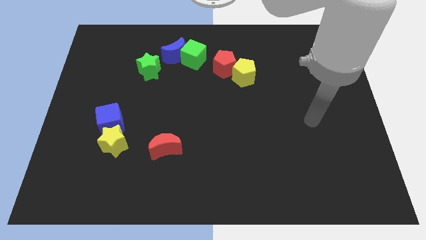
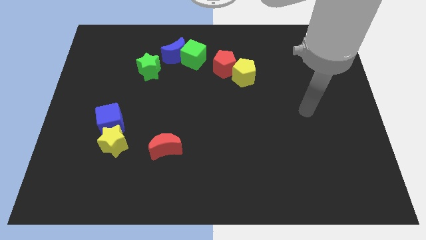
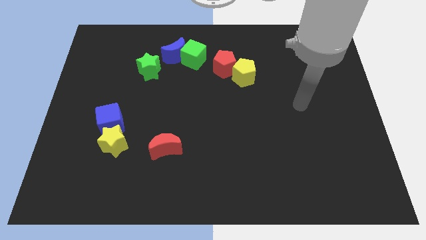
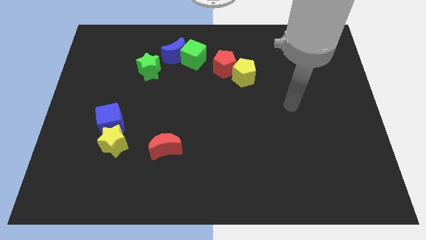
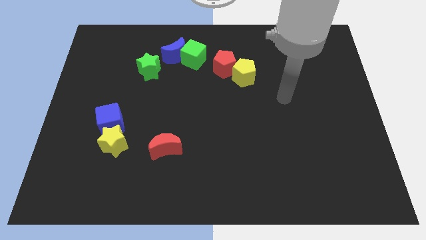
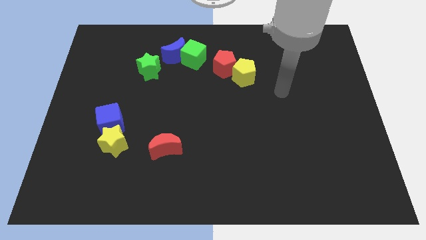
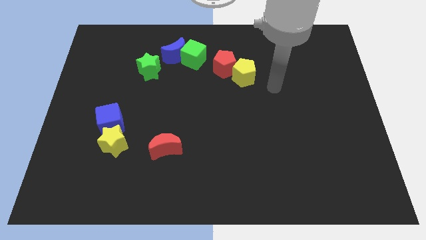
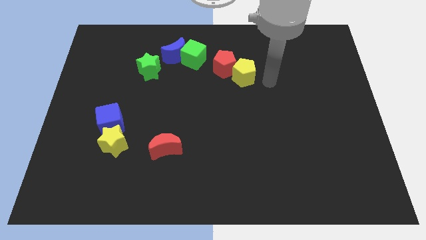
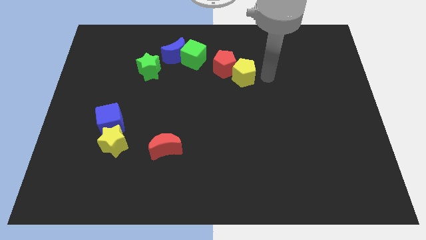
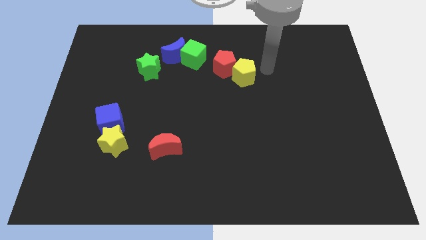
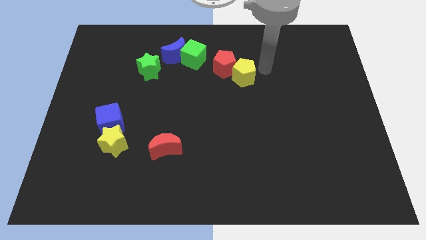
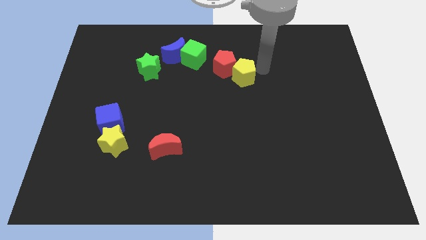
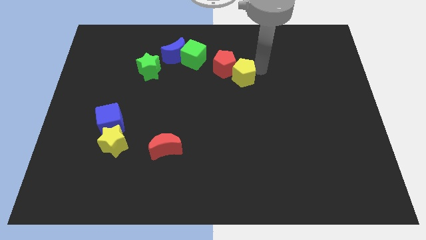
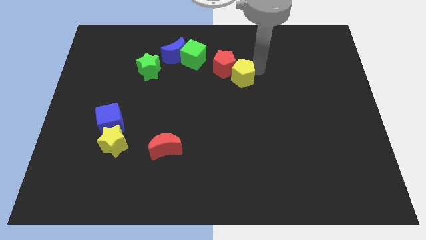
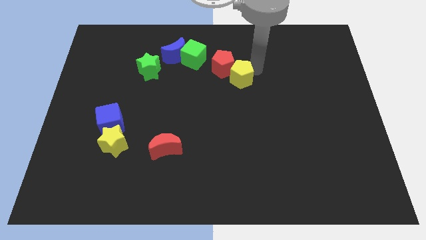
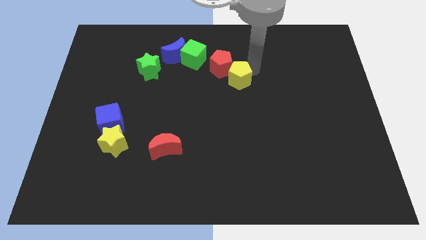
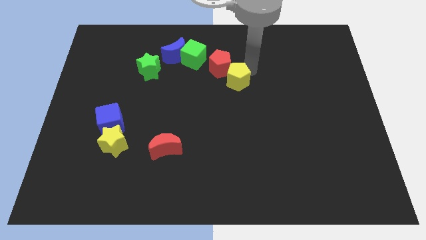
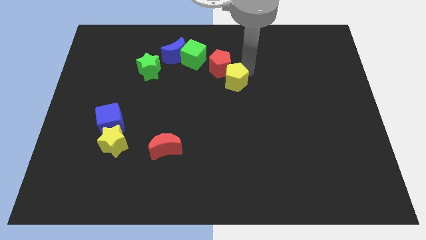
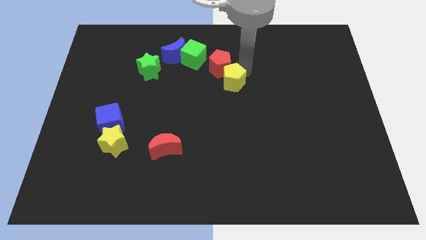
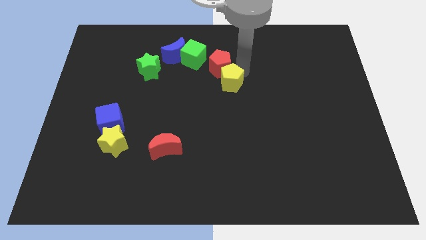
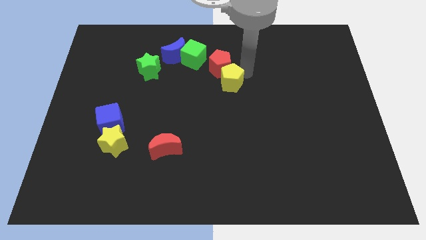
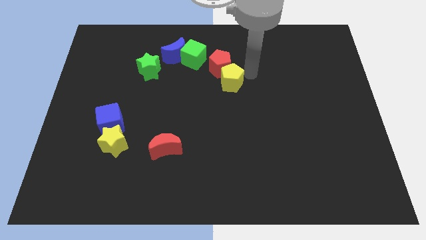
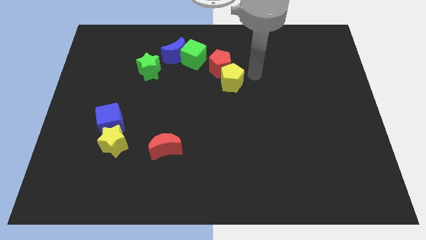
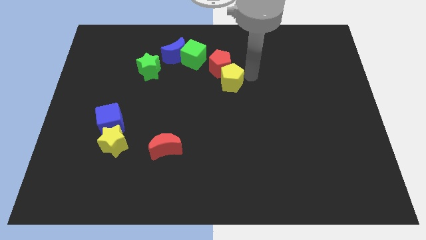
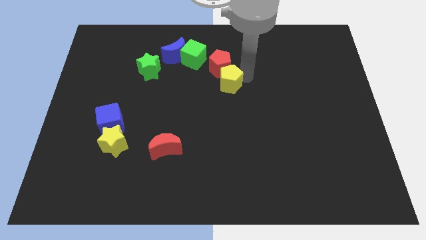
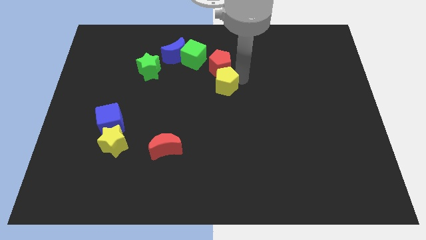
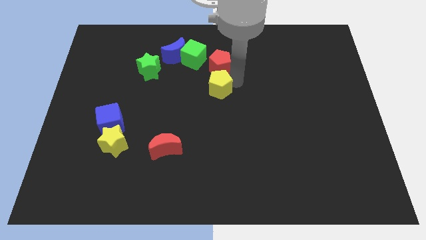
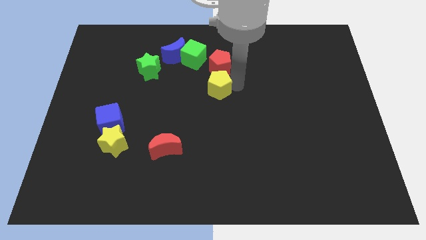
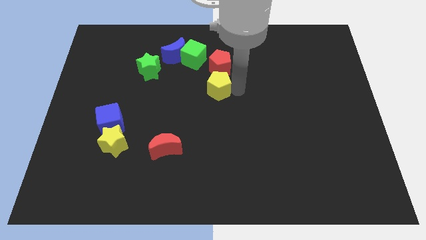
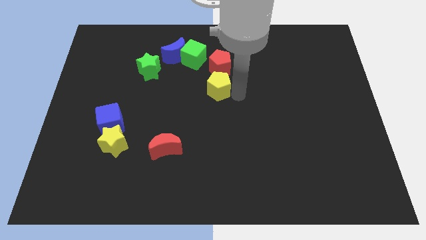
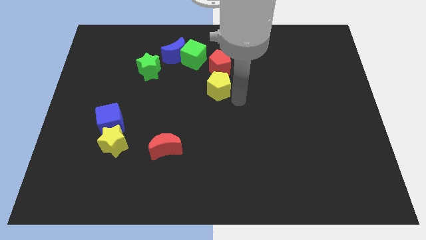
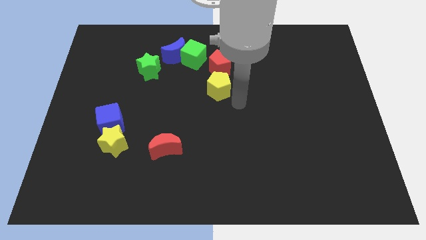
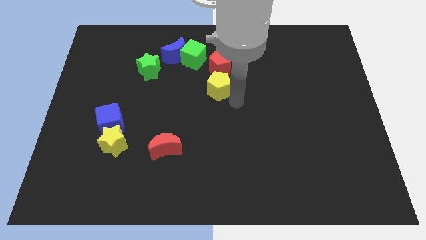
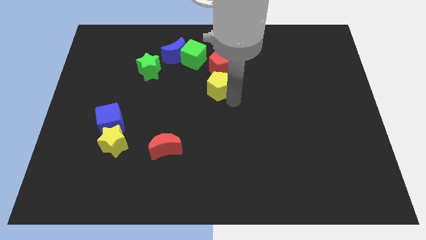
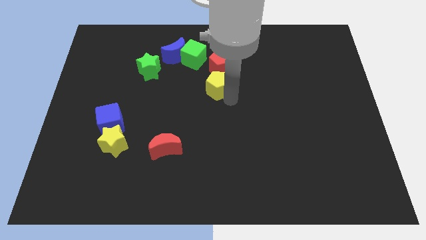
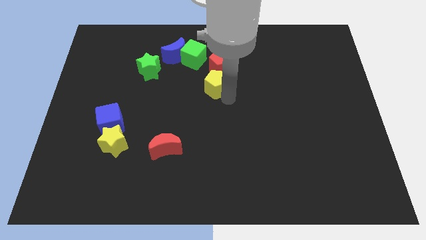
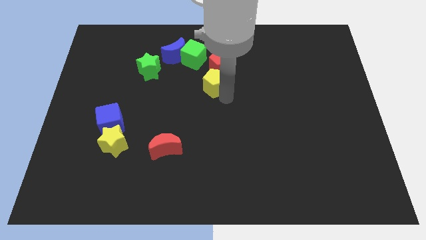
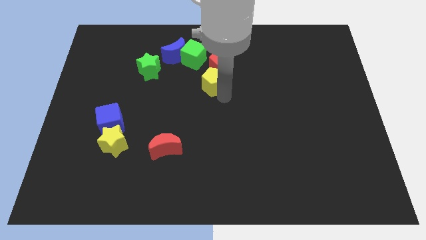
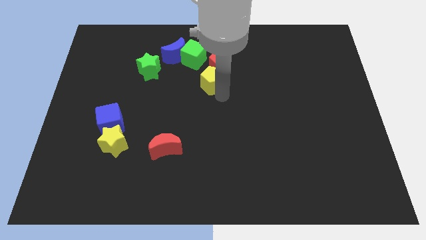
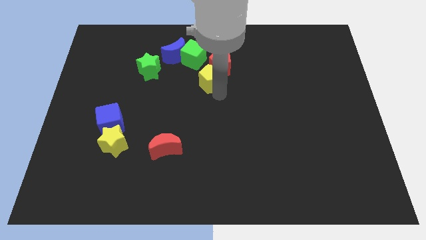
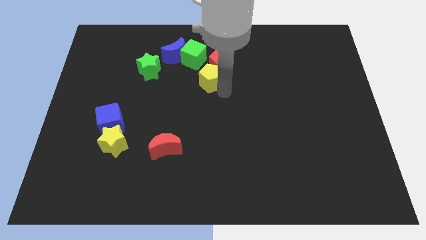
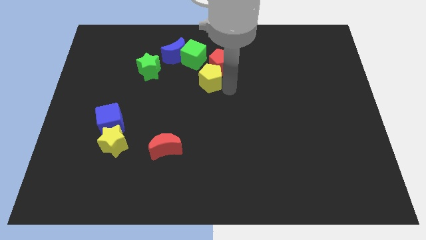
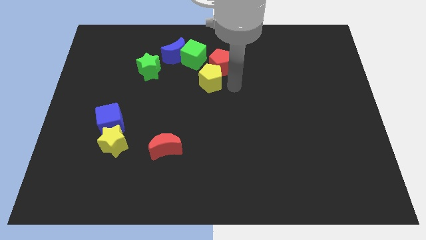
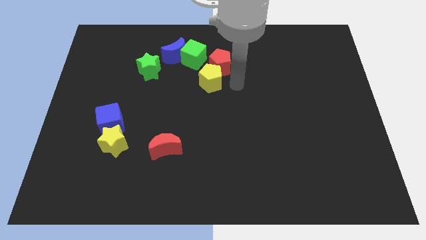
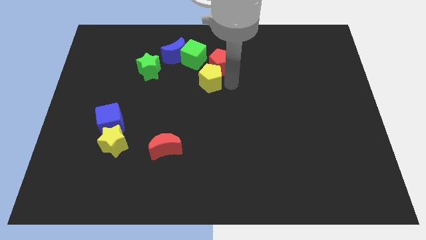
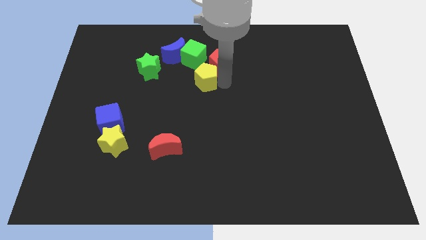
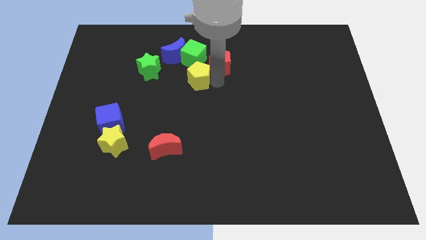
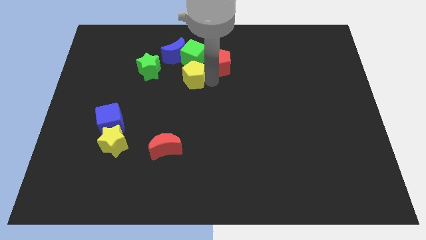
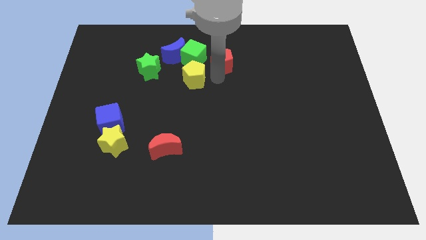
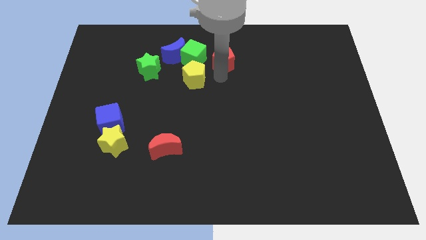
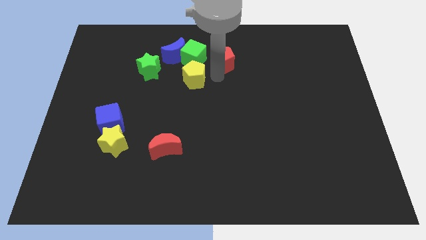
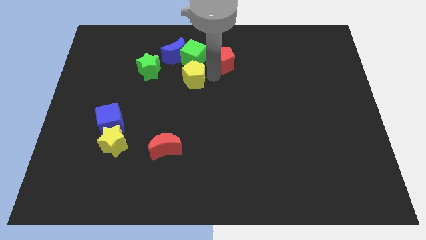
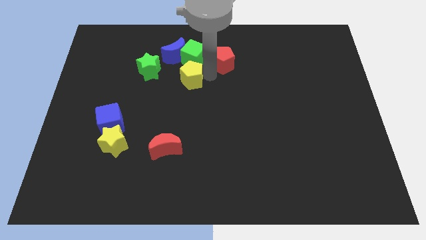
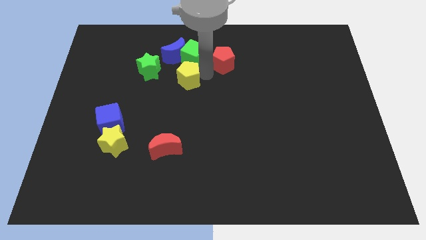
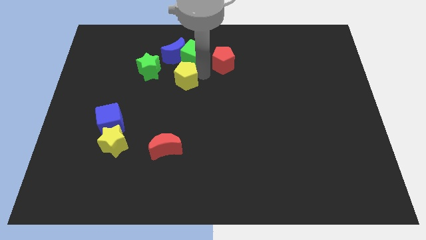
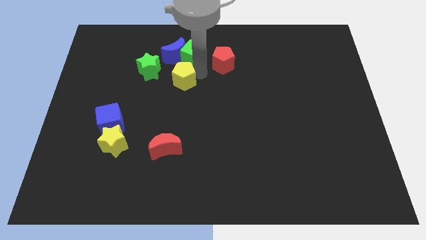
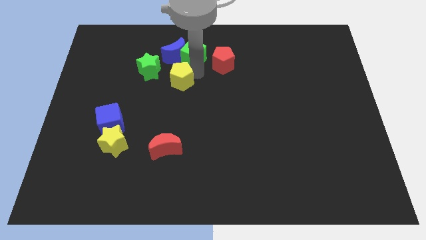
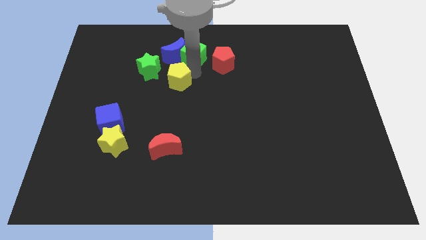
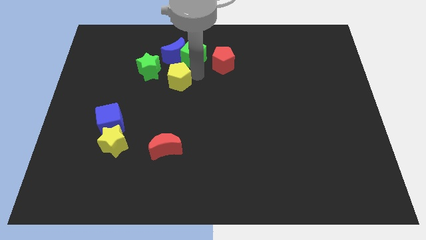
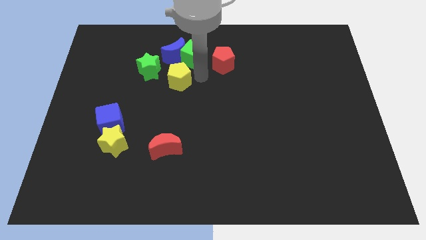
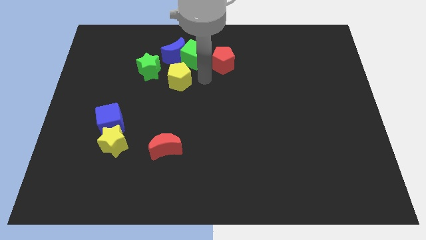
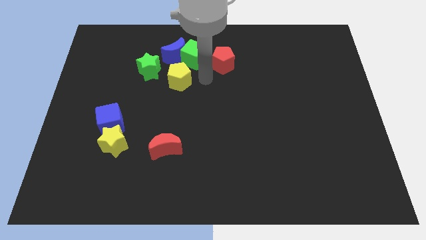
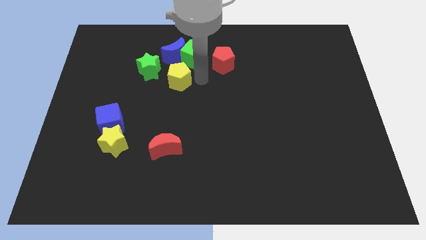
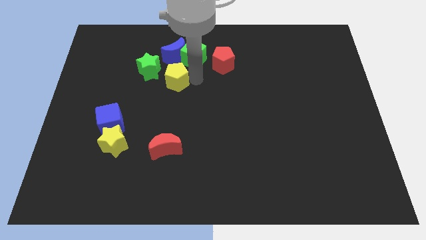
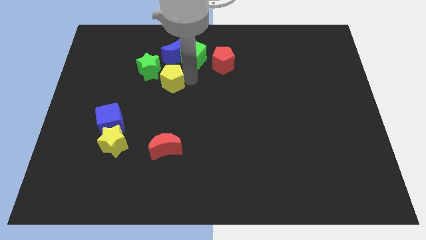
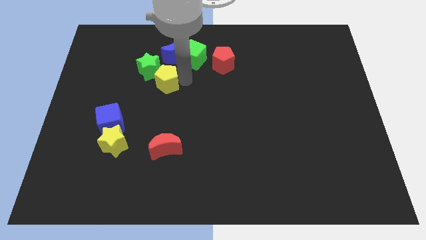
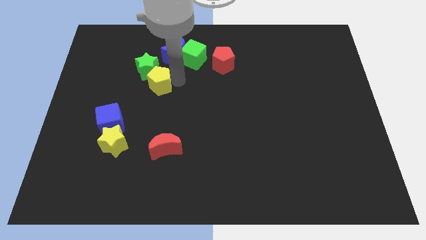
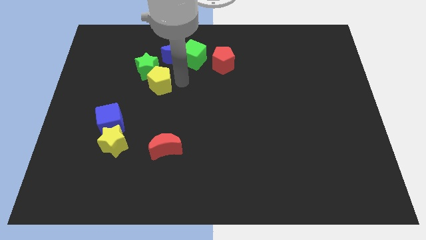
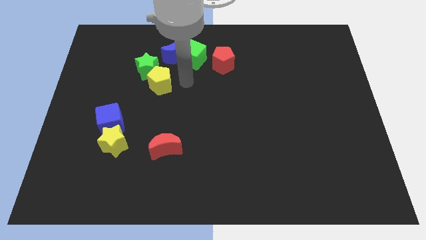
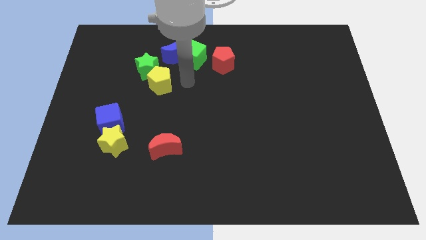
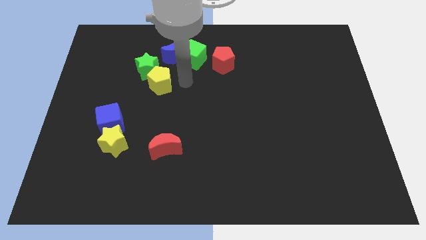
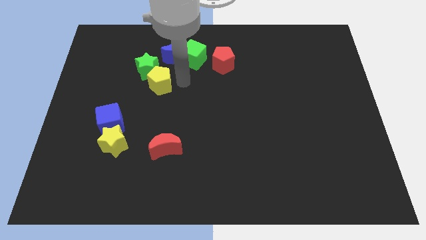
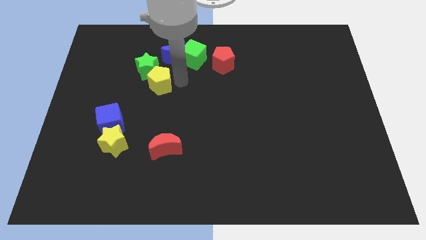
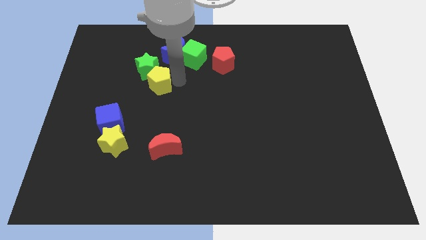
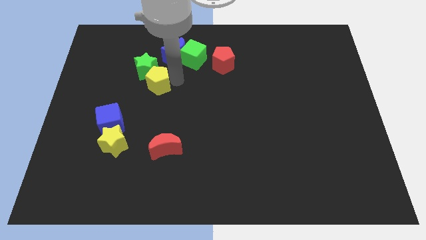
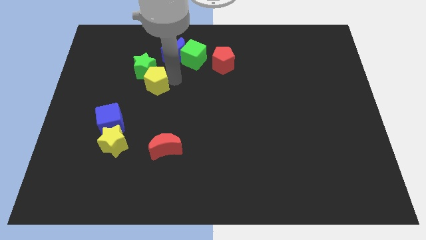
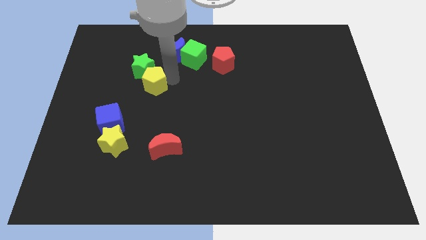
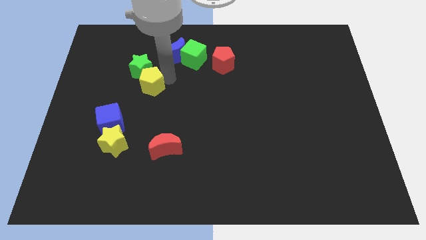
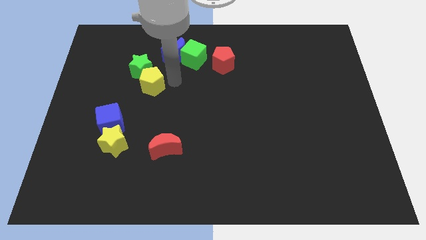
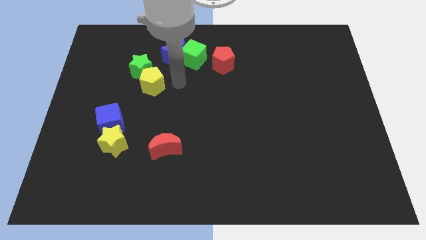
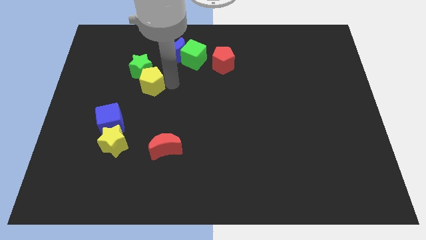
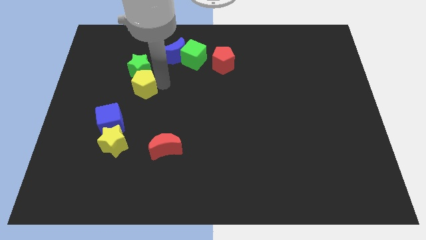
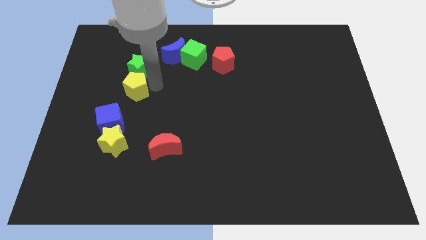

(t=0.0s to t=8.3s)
move the yellow pentagon to the bottom left side of the green star
